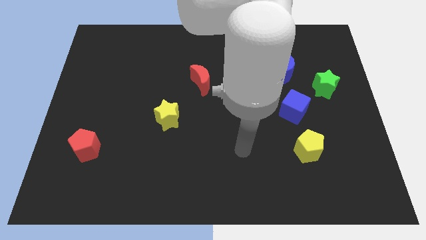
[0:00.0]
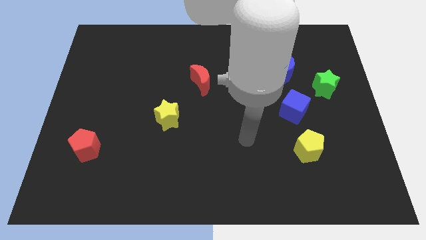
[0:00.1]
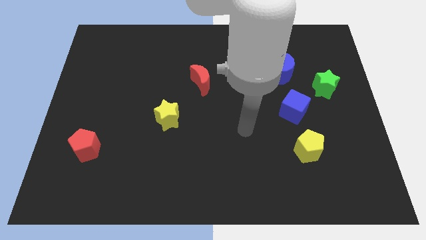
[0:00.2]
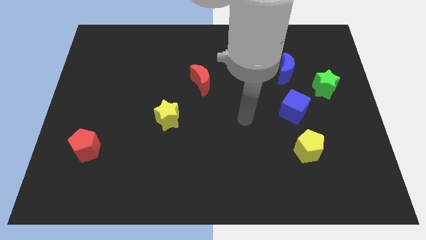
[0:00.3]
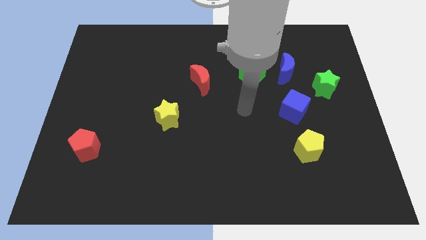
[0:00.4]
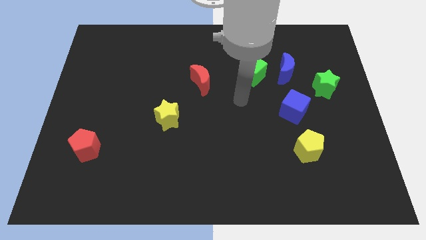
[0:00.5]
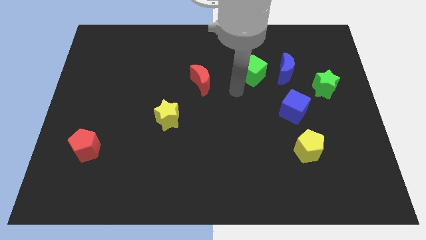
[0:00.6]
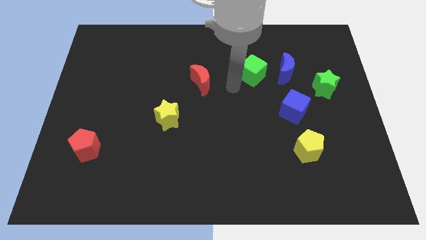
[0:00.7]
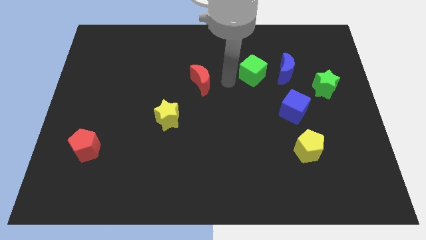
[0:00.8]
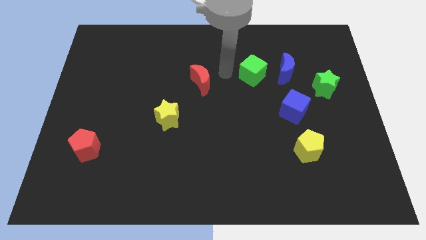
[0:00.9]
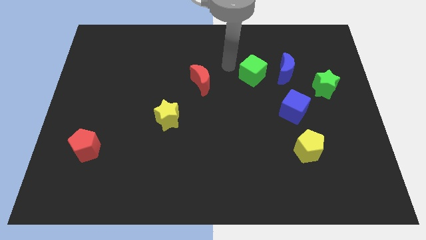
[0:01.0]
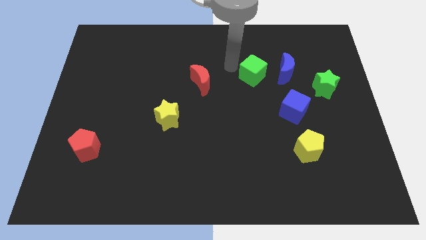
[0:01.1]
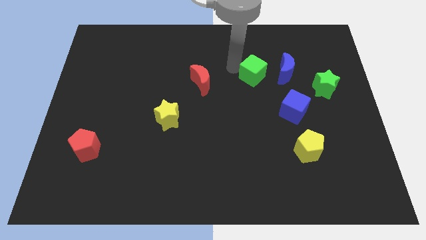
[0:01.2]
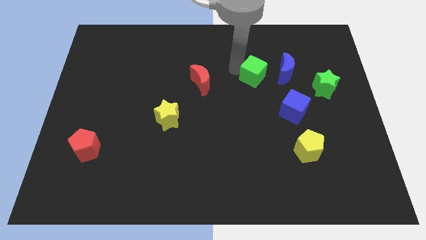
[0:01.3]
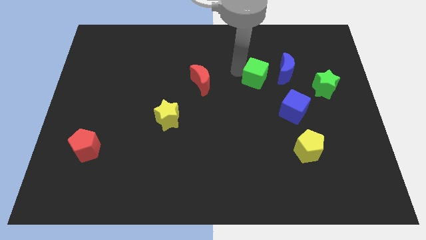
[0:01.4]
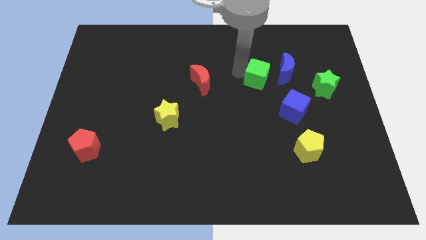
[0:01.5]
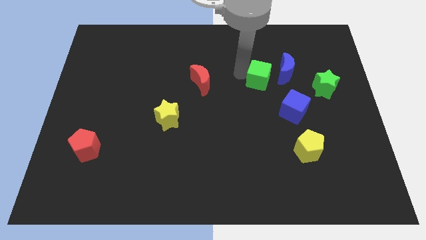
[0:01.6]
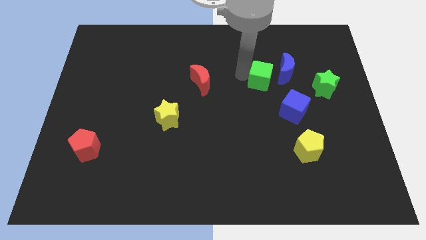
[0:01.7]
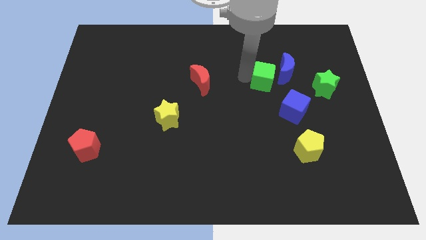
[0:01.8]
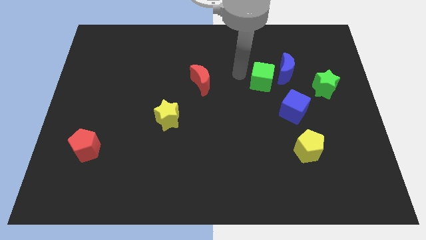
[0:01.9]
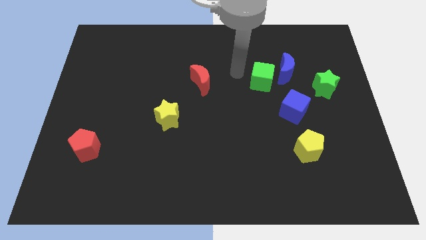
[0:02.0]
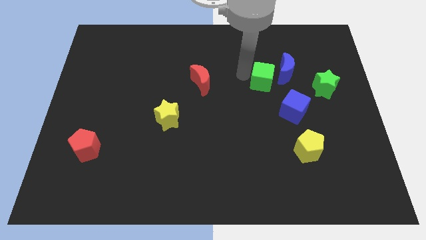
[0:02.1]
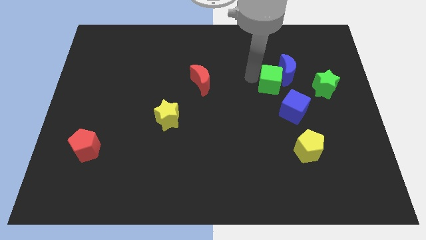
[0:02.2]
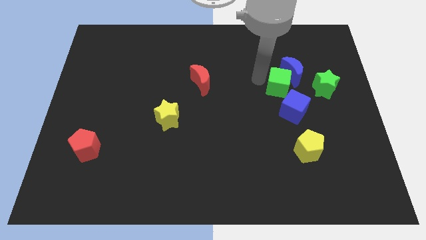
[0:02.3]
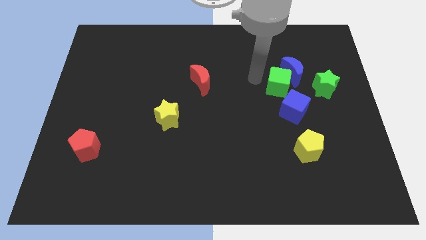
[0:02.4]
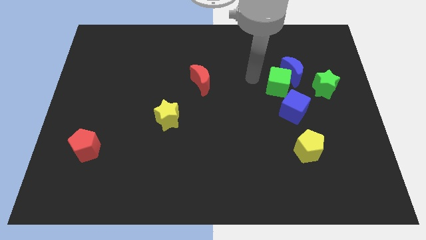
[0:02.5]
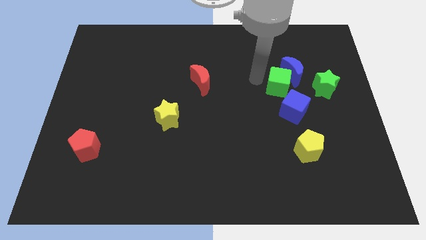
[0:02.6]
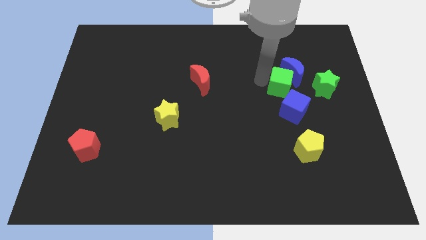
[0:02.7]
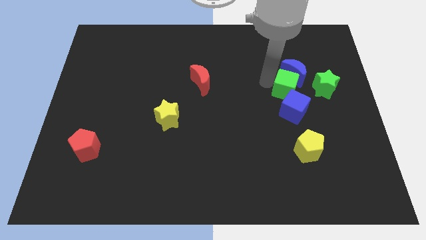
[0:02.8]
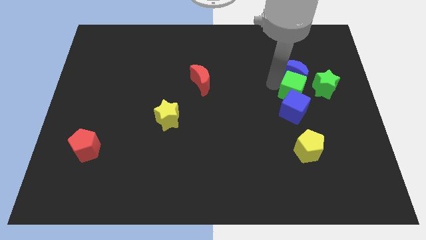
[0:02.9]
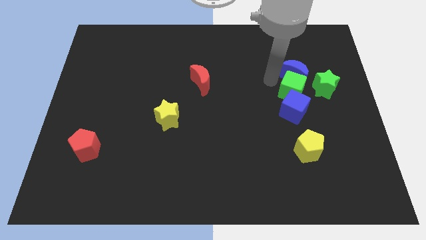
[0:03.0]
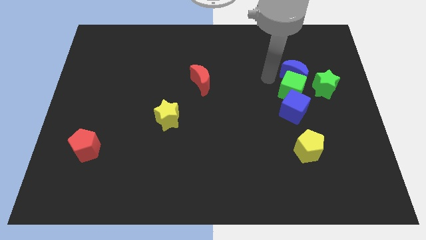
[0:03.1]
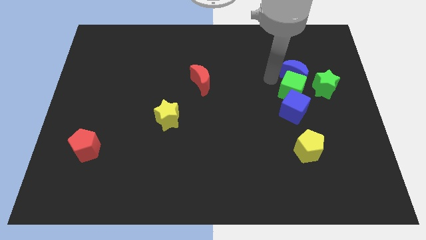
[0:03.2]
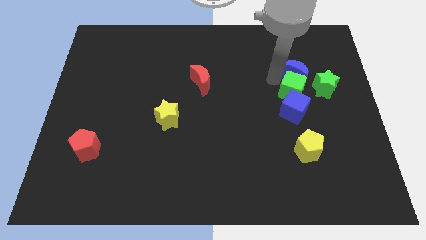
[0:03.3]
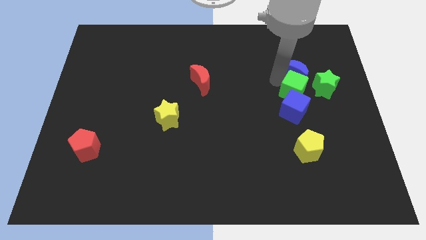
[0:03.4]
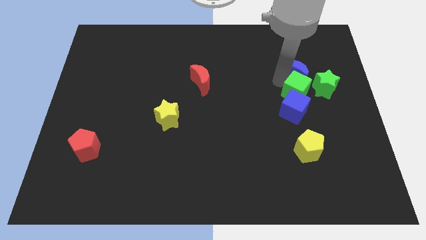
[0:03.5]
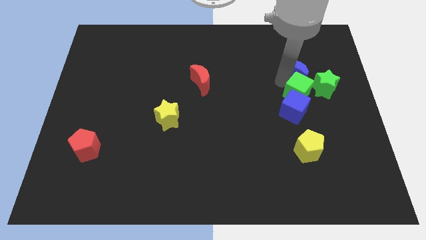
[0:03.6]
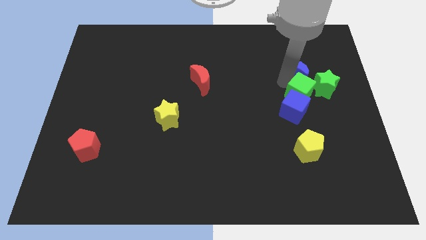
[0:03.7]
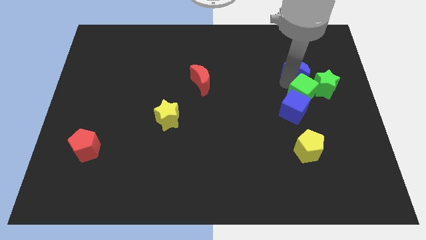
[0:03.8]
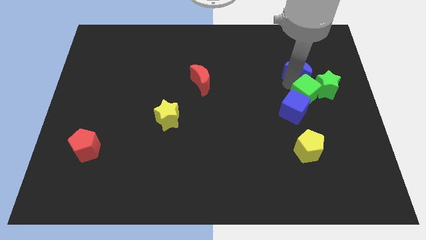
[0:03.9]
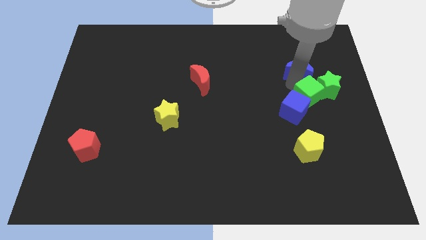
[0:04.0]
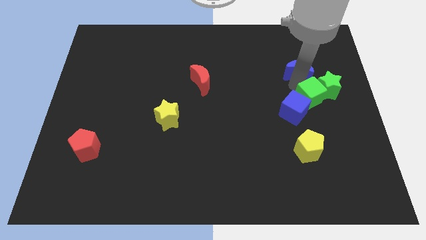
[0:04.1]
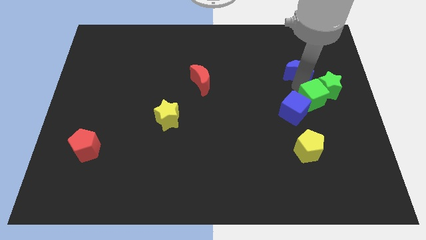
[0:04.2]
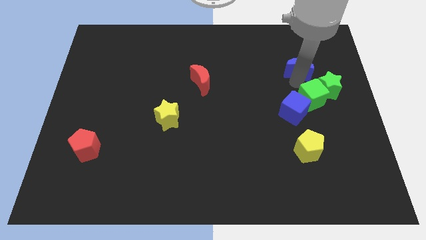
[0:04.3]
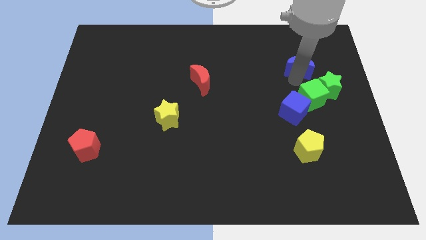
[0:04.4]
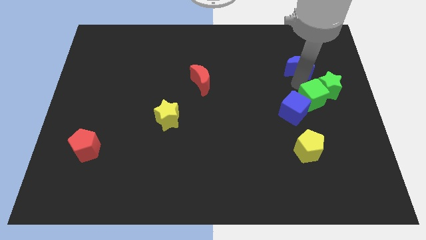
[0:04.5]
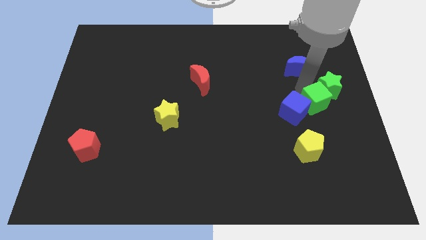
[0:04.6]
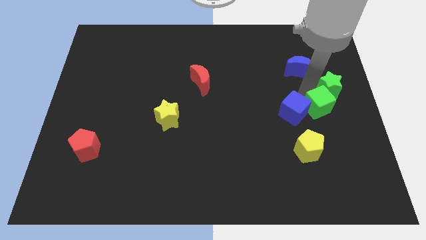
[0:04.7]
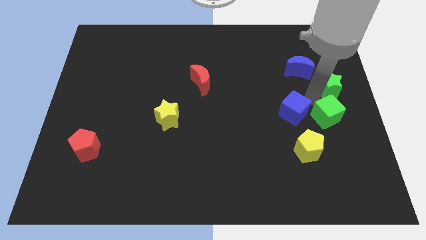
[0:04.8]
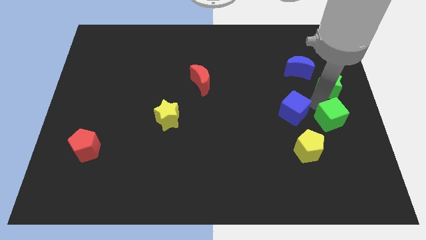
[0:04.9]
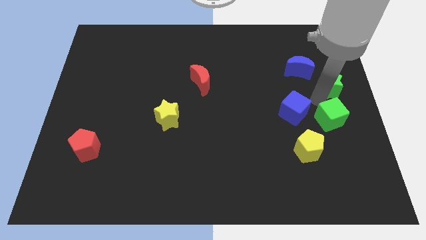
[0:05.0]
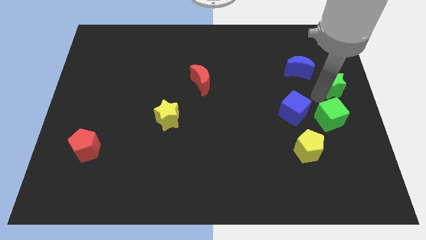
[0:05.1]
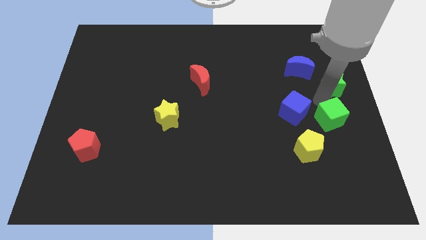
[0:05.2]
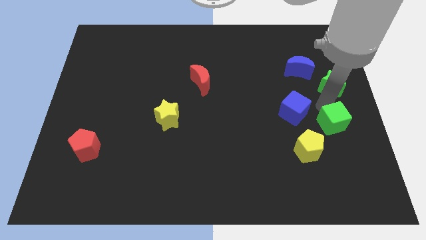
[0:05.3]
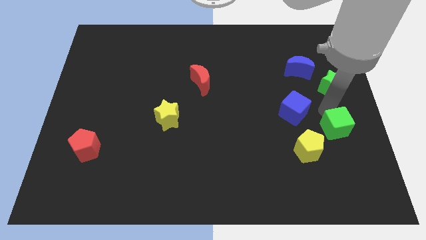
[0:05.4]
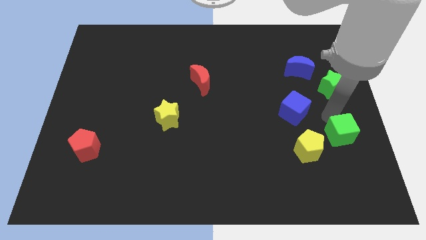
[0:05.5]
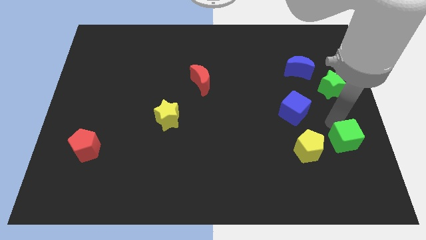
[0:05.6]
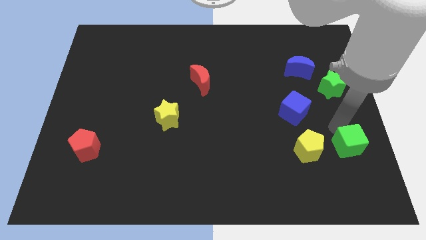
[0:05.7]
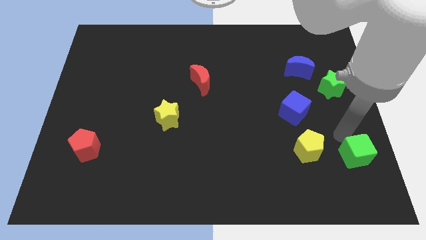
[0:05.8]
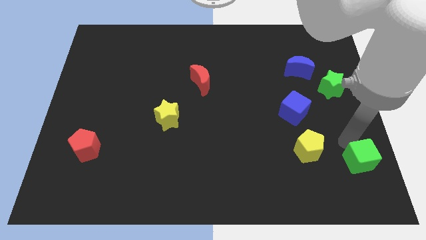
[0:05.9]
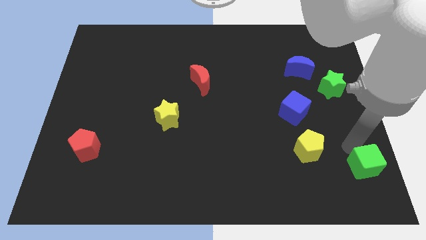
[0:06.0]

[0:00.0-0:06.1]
push the green cube to the bottom right
